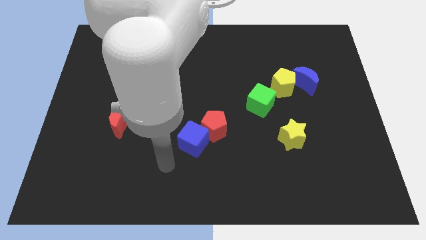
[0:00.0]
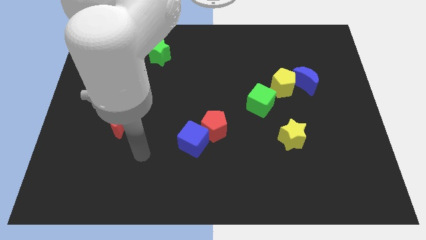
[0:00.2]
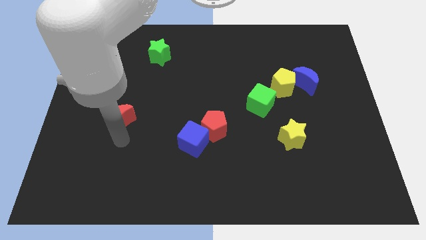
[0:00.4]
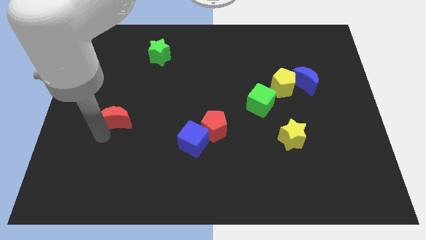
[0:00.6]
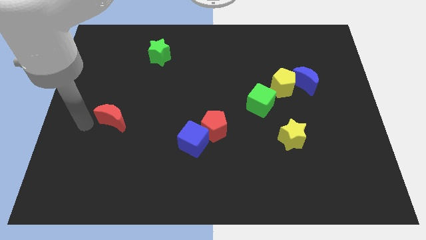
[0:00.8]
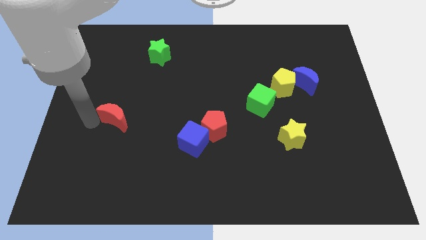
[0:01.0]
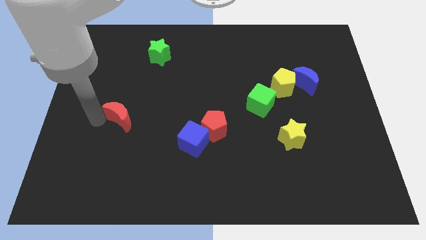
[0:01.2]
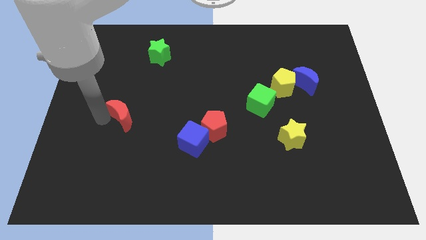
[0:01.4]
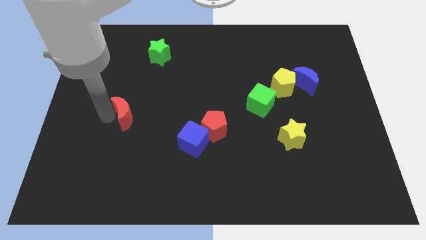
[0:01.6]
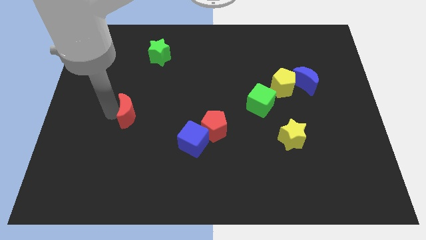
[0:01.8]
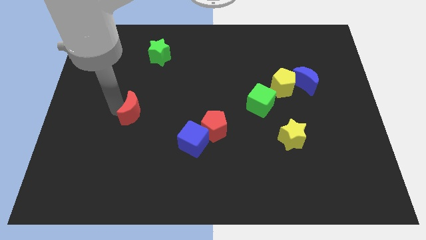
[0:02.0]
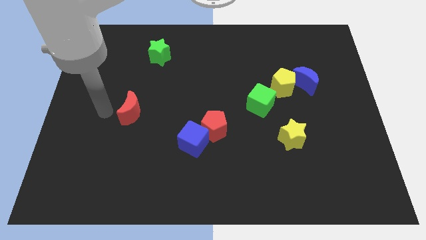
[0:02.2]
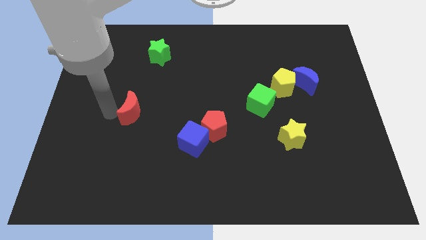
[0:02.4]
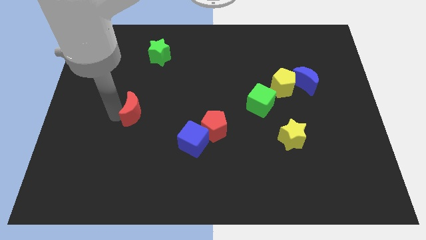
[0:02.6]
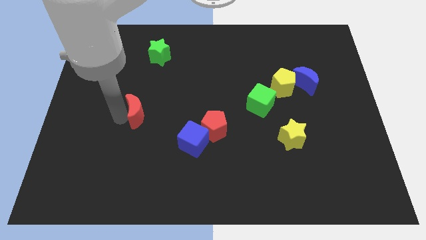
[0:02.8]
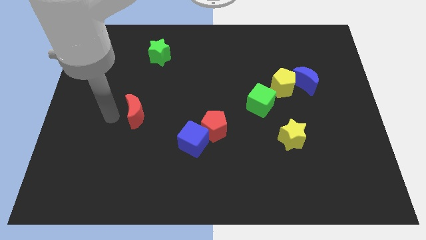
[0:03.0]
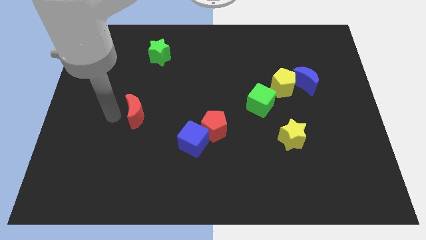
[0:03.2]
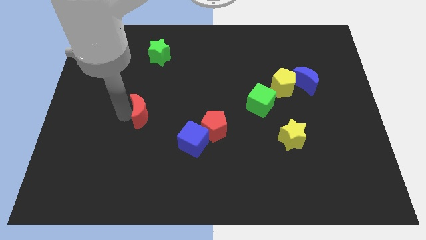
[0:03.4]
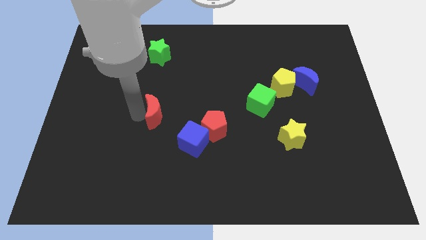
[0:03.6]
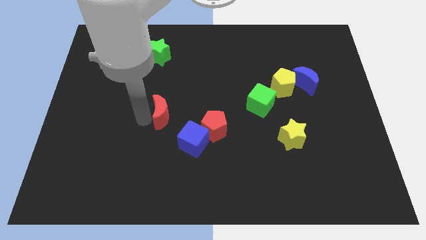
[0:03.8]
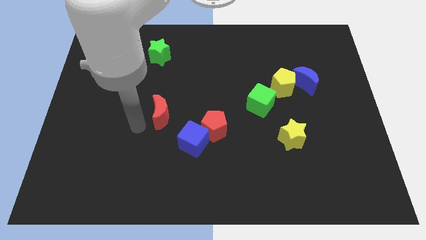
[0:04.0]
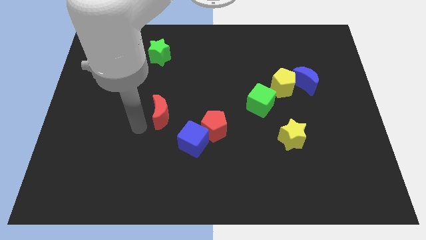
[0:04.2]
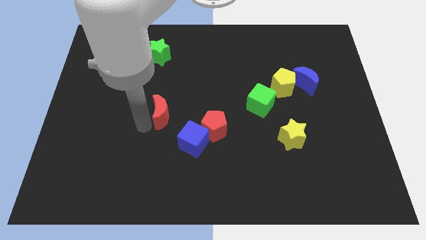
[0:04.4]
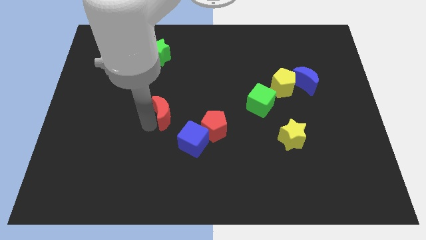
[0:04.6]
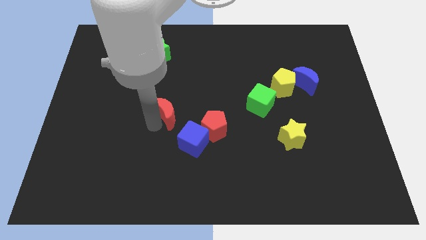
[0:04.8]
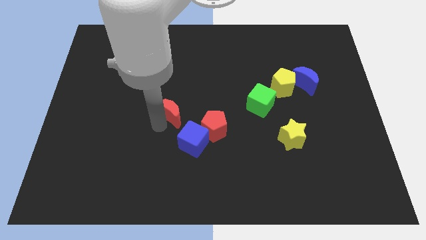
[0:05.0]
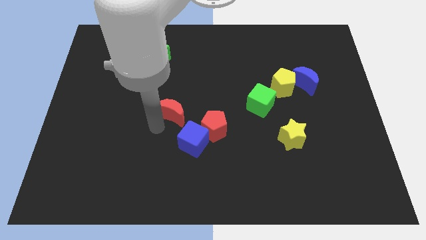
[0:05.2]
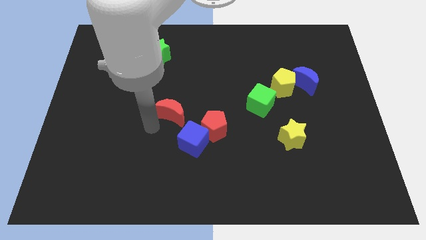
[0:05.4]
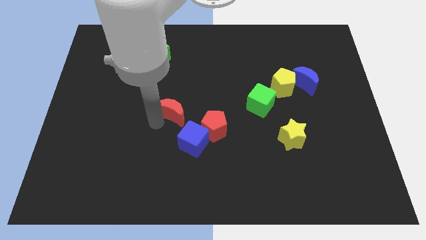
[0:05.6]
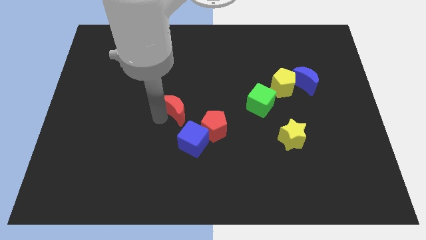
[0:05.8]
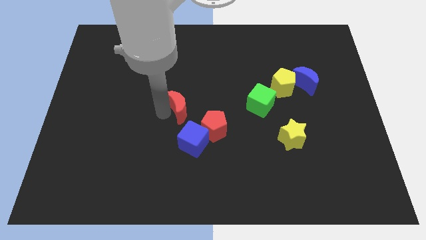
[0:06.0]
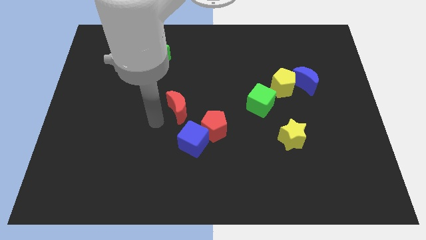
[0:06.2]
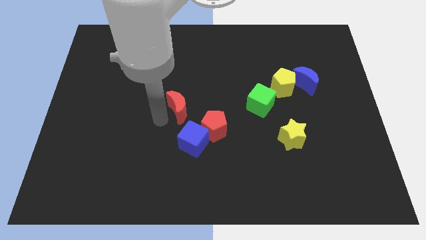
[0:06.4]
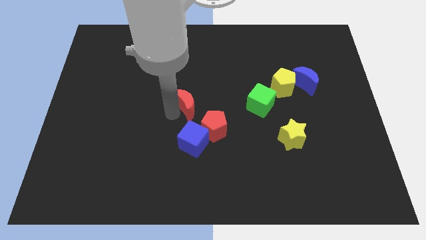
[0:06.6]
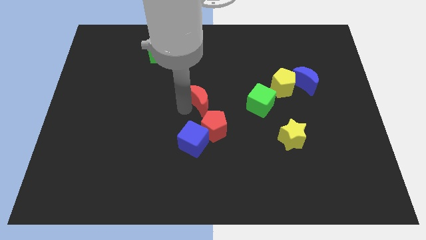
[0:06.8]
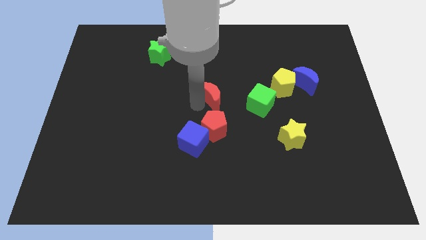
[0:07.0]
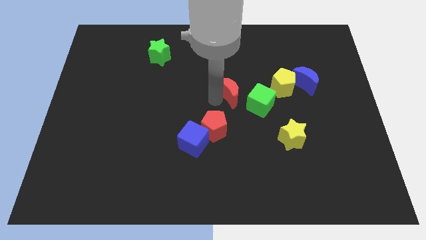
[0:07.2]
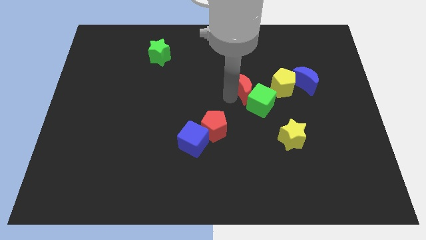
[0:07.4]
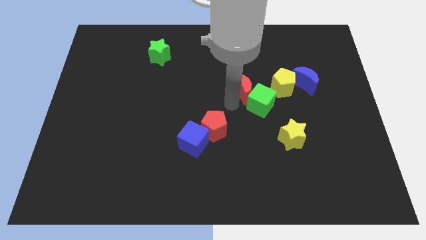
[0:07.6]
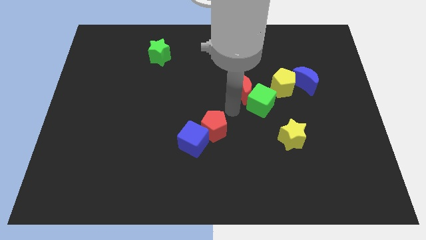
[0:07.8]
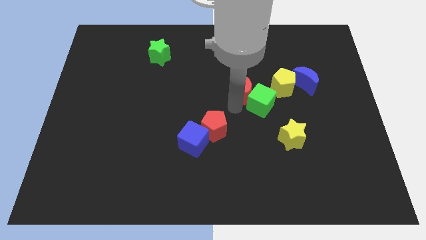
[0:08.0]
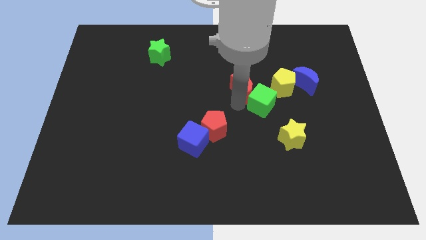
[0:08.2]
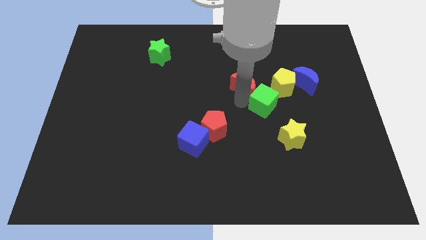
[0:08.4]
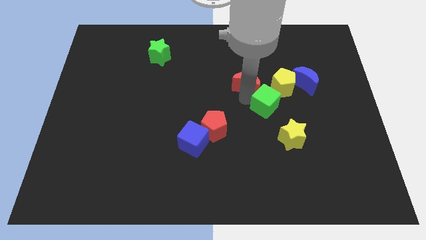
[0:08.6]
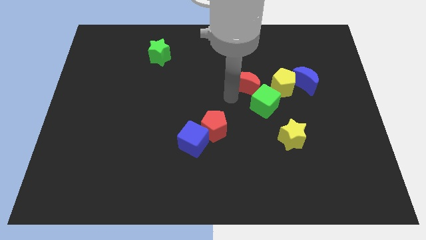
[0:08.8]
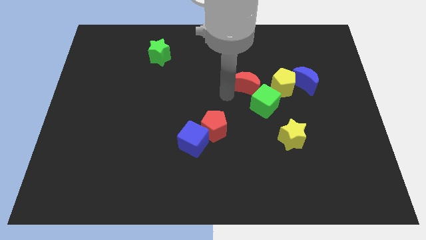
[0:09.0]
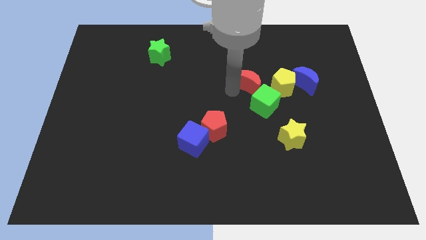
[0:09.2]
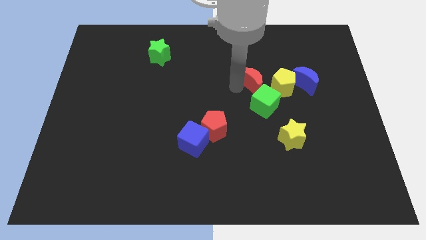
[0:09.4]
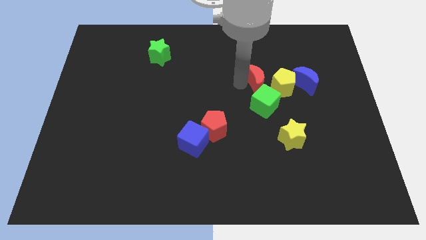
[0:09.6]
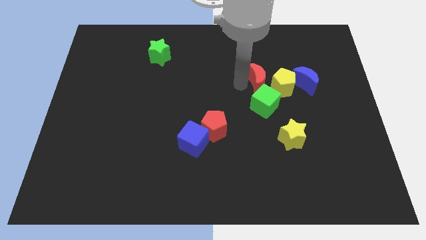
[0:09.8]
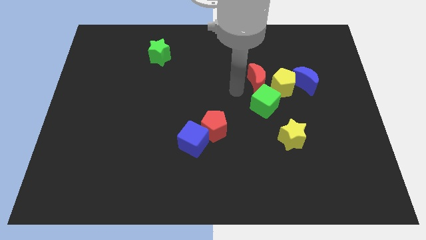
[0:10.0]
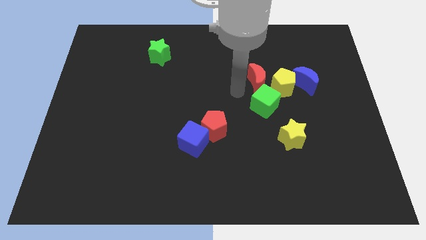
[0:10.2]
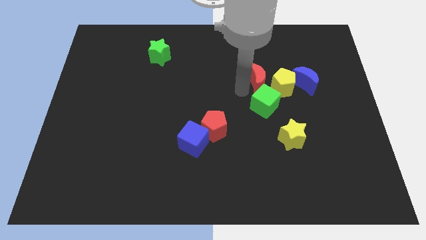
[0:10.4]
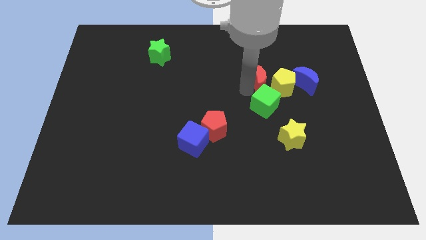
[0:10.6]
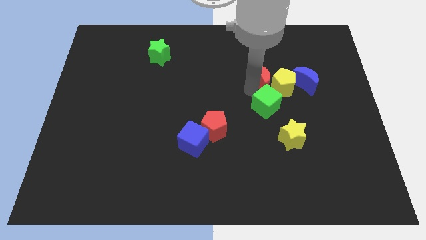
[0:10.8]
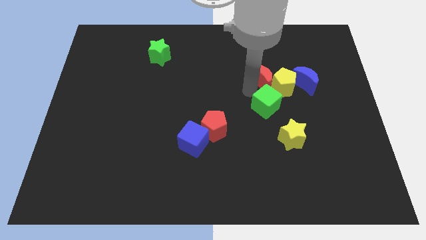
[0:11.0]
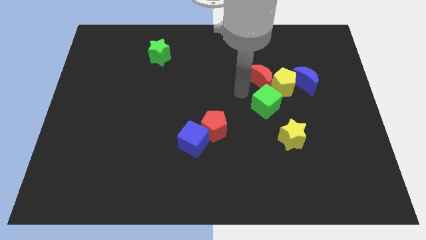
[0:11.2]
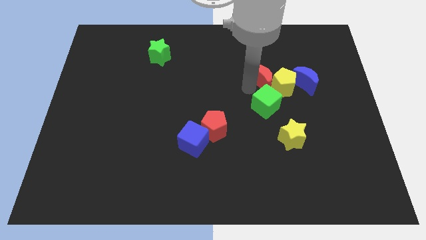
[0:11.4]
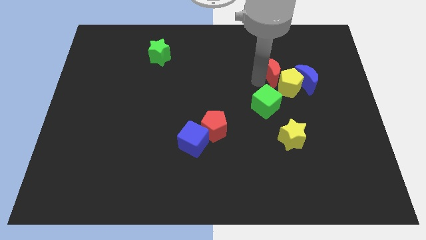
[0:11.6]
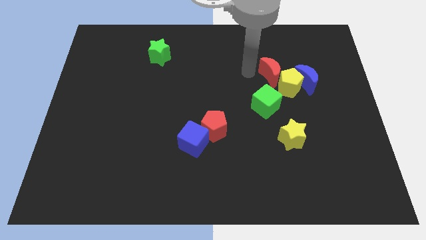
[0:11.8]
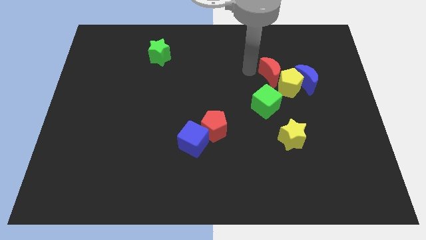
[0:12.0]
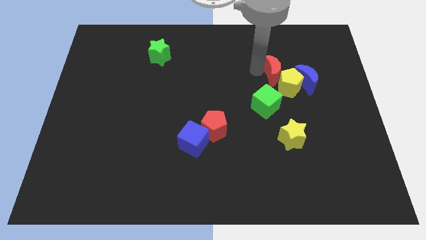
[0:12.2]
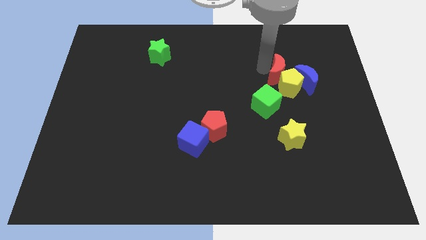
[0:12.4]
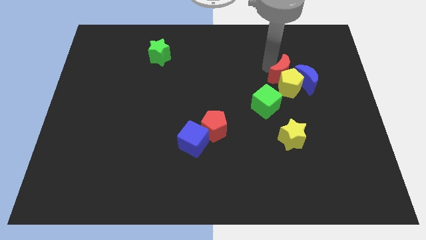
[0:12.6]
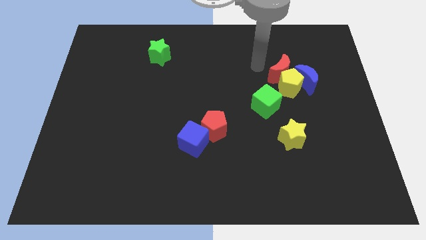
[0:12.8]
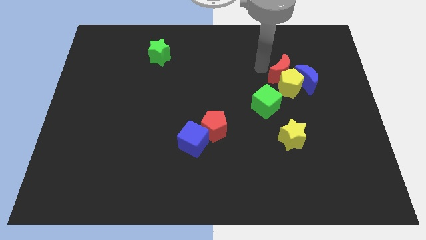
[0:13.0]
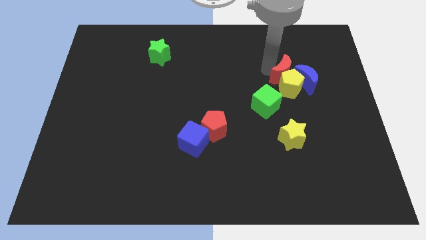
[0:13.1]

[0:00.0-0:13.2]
slide the red moon to the blue moon
